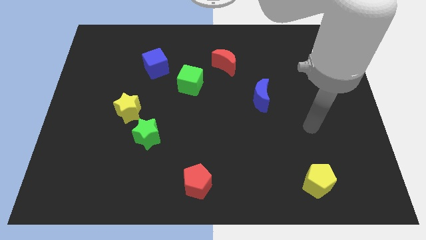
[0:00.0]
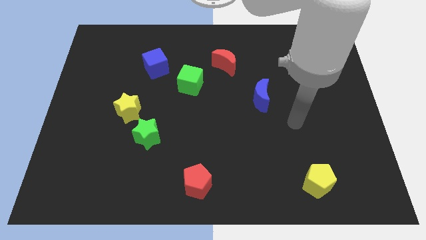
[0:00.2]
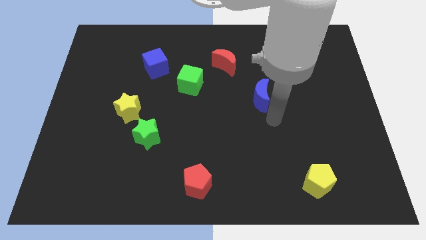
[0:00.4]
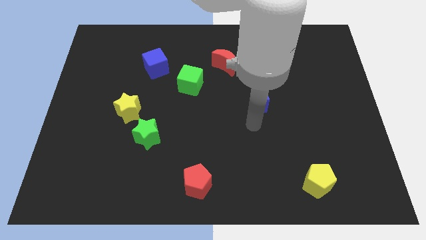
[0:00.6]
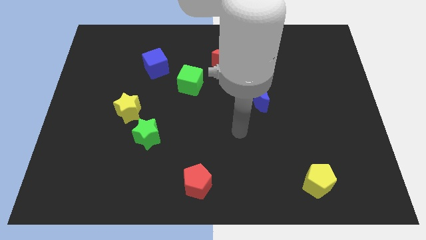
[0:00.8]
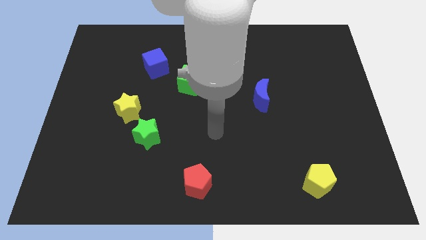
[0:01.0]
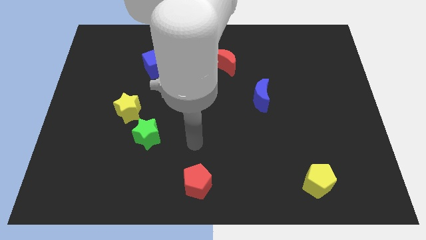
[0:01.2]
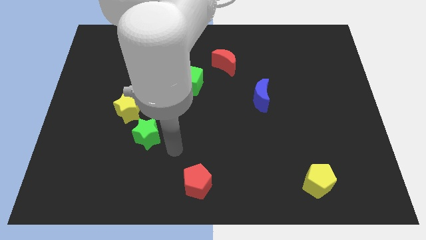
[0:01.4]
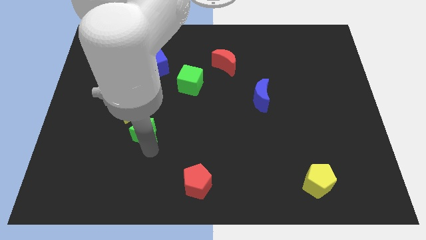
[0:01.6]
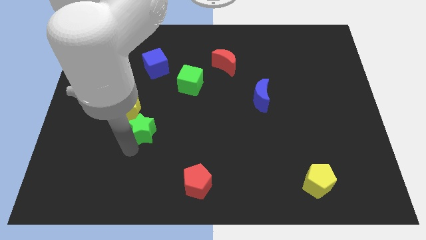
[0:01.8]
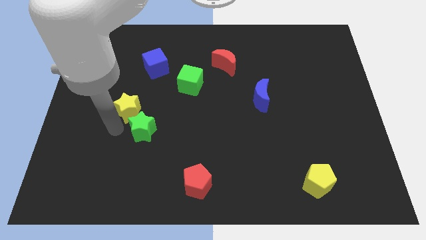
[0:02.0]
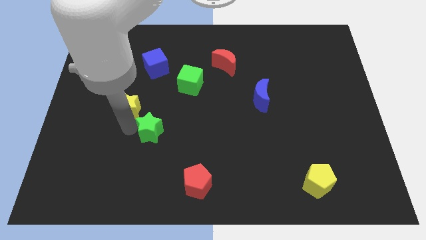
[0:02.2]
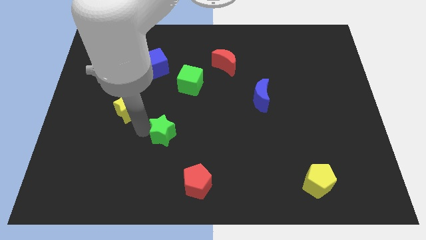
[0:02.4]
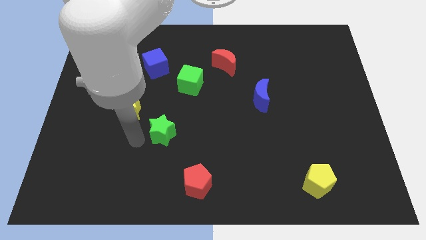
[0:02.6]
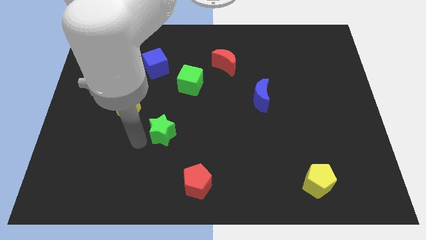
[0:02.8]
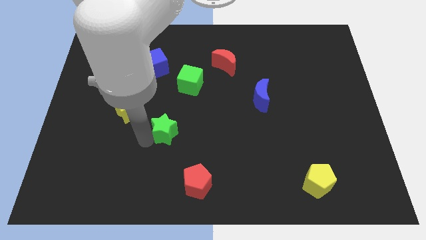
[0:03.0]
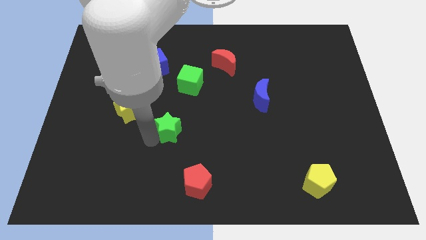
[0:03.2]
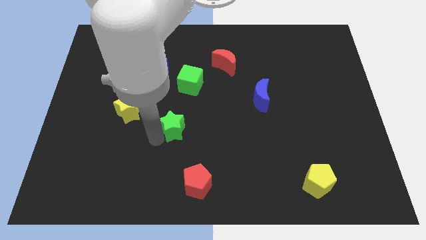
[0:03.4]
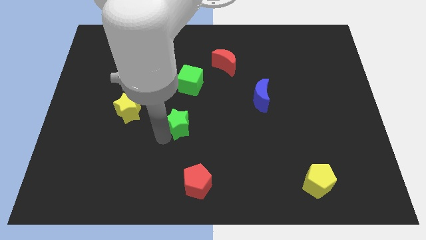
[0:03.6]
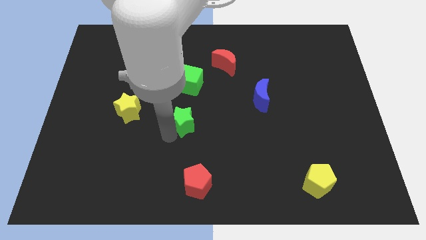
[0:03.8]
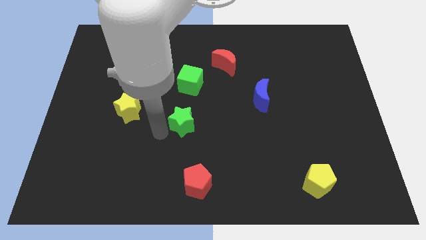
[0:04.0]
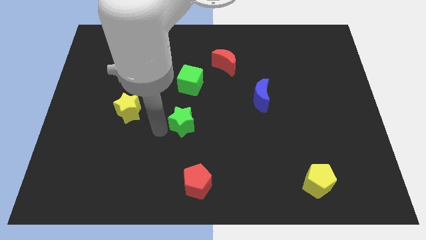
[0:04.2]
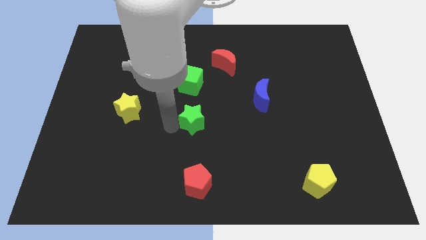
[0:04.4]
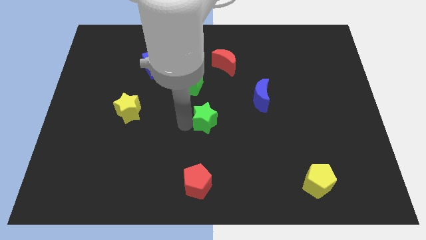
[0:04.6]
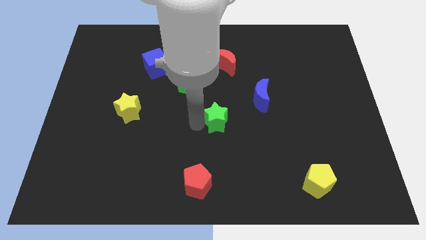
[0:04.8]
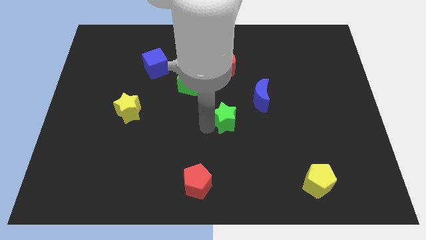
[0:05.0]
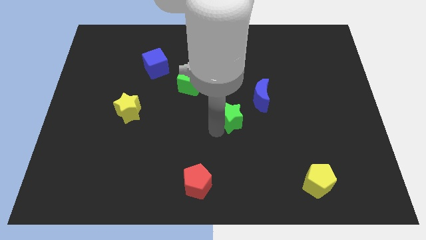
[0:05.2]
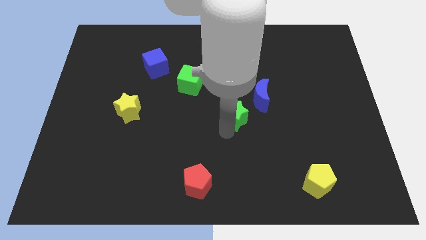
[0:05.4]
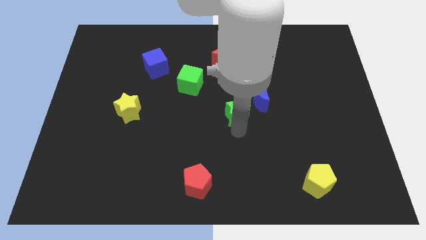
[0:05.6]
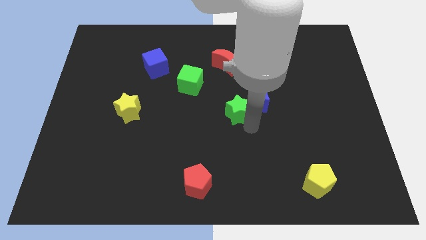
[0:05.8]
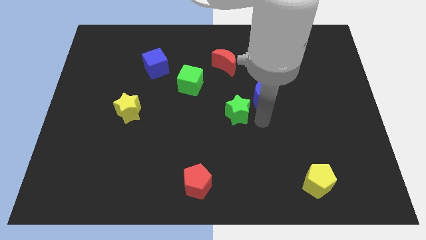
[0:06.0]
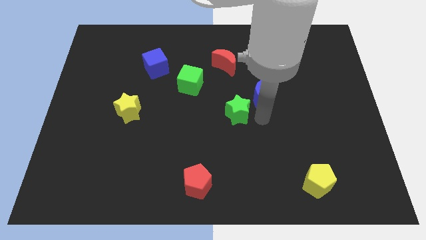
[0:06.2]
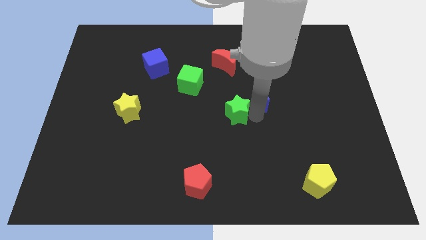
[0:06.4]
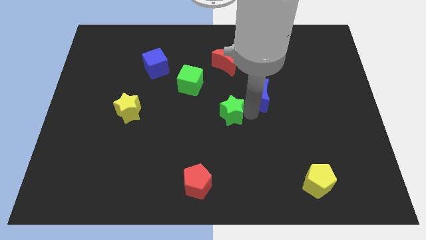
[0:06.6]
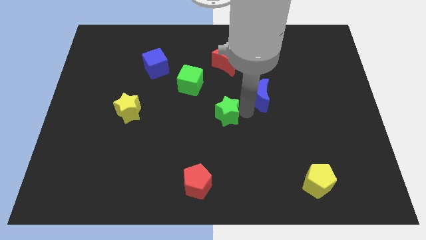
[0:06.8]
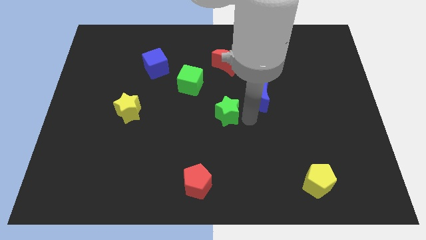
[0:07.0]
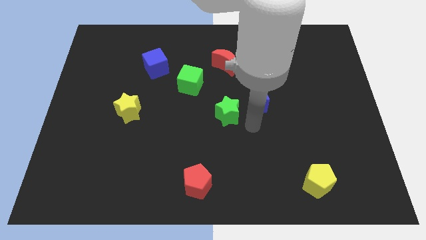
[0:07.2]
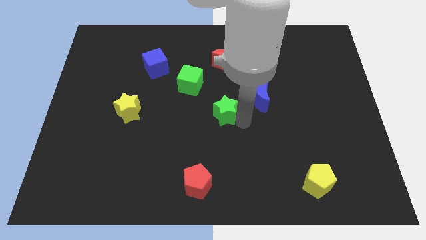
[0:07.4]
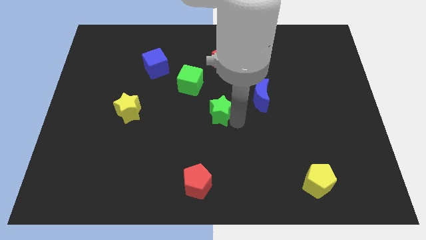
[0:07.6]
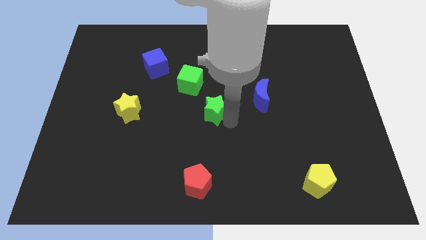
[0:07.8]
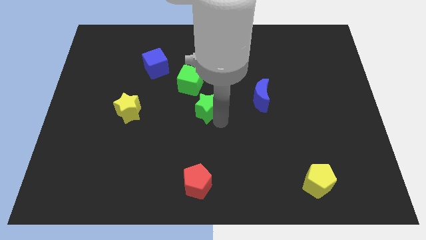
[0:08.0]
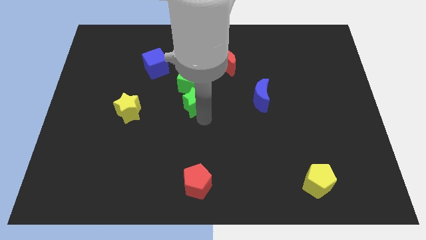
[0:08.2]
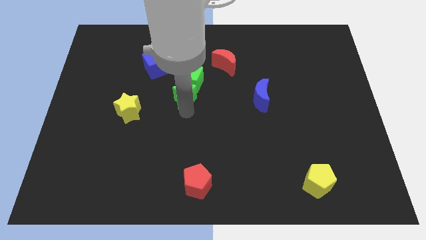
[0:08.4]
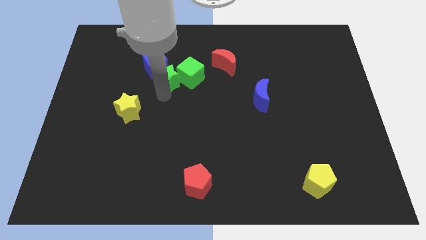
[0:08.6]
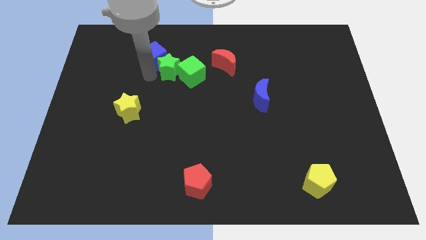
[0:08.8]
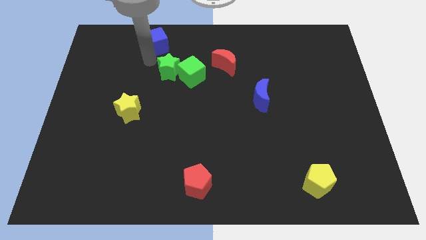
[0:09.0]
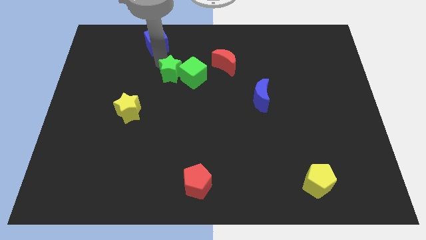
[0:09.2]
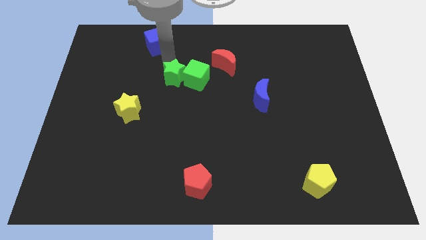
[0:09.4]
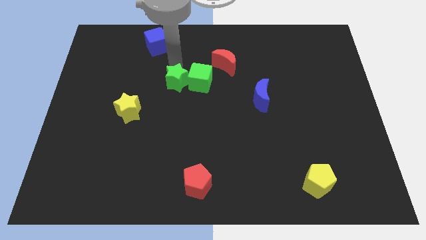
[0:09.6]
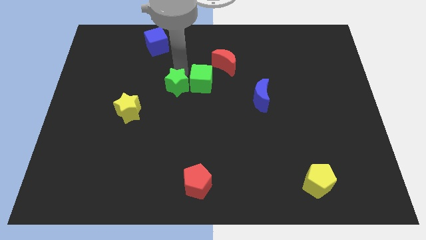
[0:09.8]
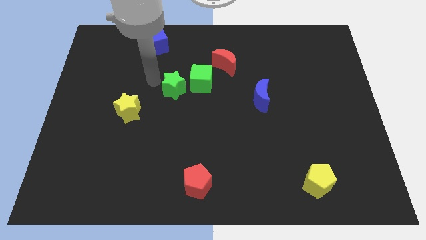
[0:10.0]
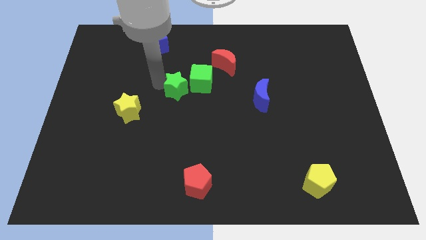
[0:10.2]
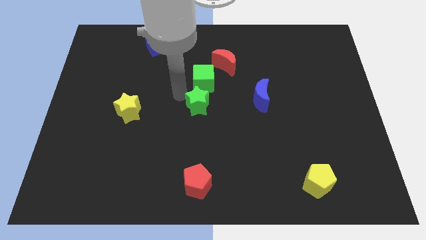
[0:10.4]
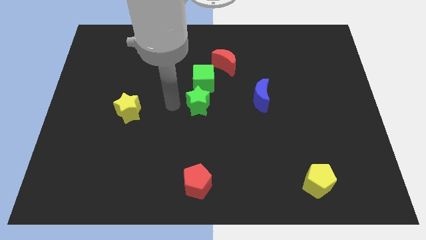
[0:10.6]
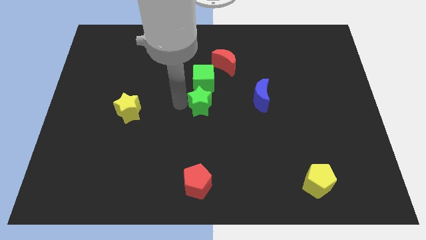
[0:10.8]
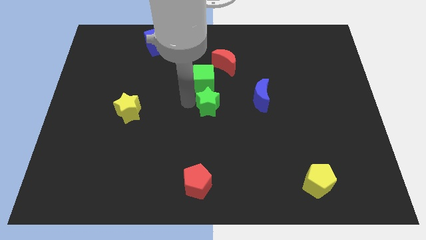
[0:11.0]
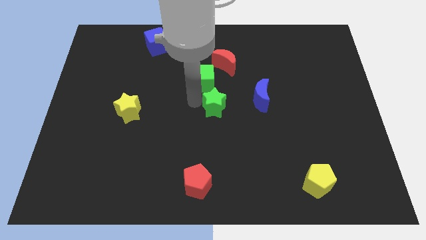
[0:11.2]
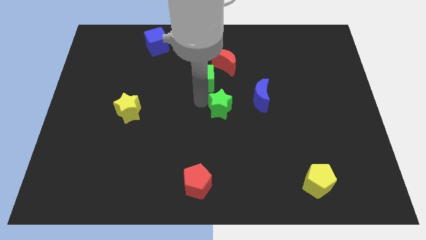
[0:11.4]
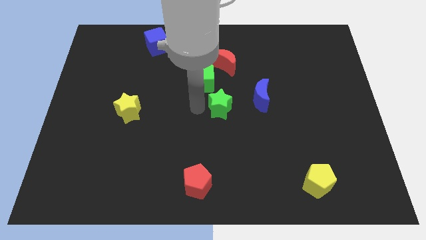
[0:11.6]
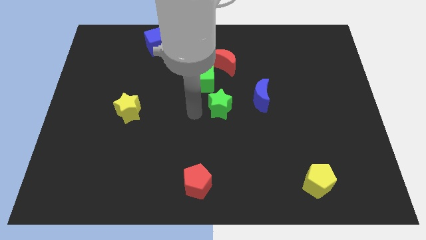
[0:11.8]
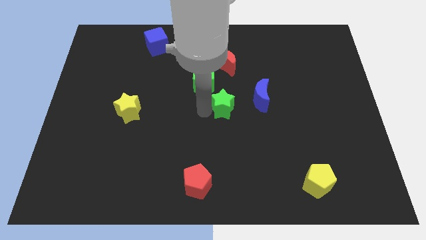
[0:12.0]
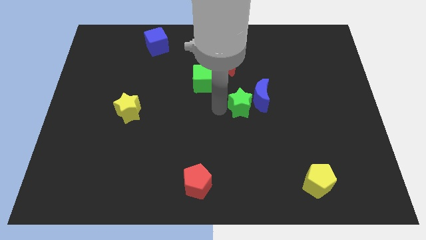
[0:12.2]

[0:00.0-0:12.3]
put the green star to the blue moon

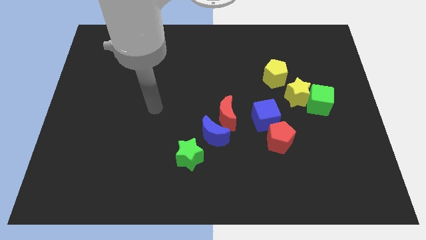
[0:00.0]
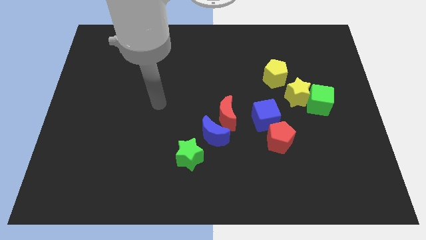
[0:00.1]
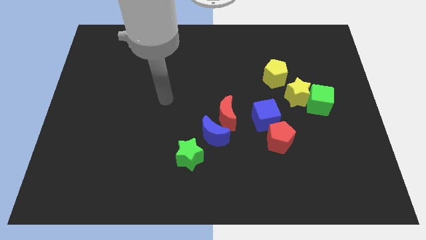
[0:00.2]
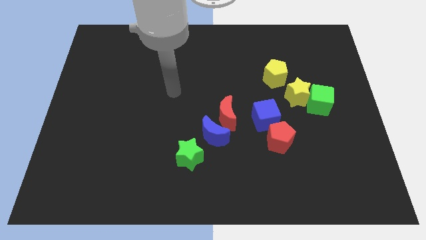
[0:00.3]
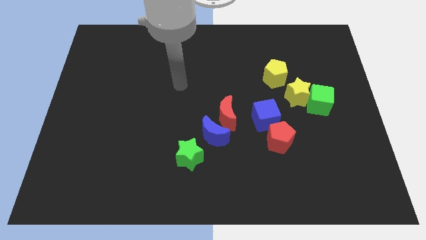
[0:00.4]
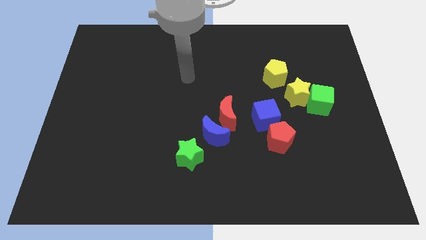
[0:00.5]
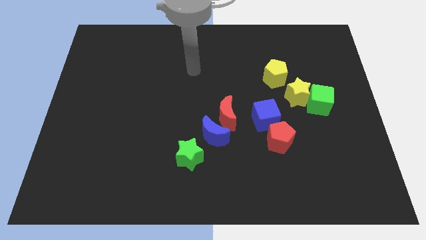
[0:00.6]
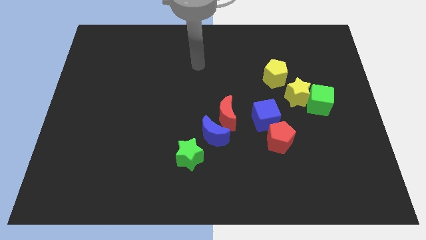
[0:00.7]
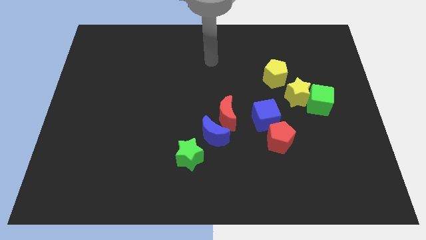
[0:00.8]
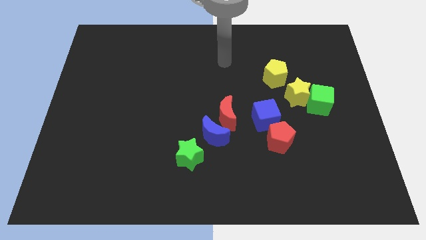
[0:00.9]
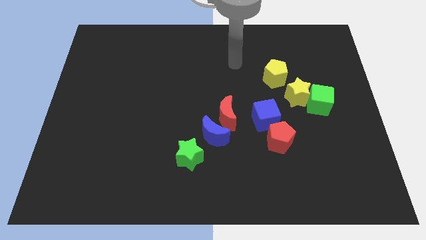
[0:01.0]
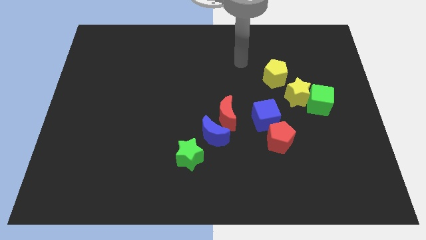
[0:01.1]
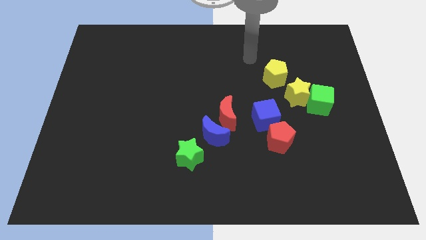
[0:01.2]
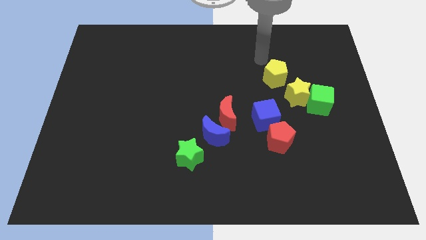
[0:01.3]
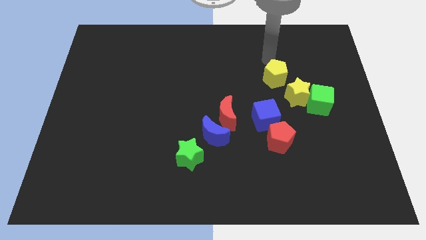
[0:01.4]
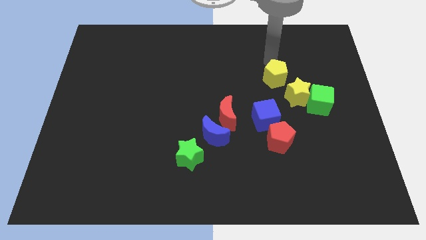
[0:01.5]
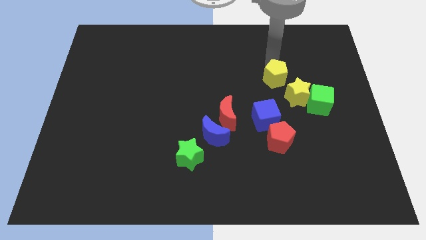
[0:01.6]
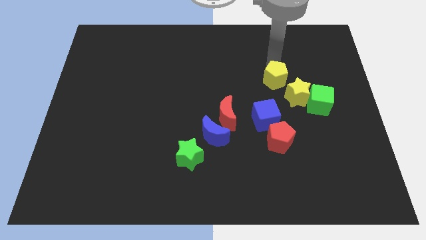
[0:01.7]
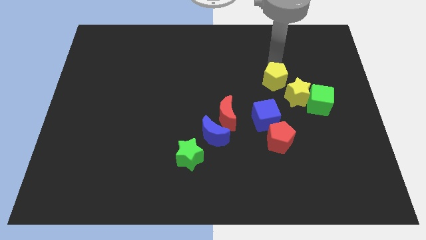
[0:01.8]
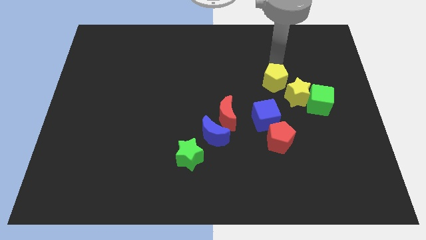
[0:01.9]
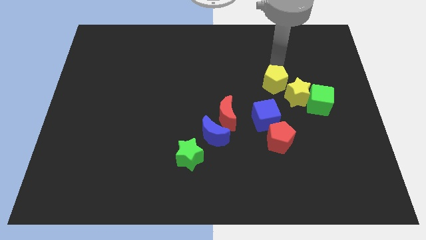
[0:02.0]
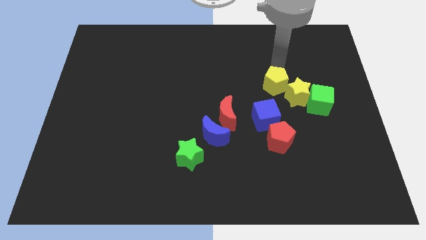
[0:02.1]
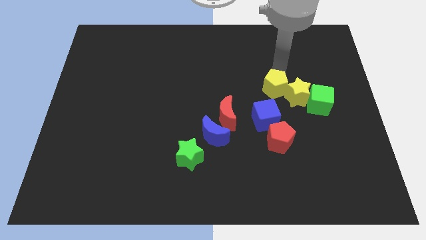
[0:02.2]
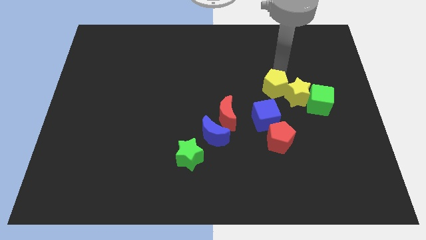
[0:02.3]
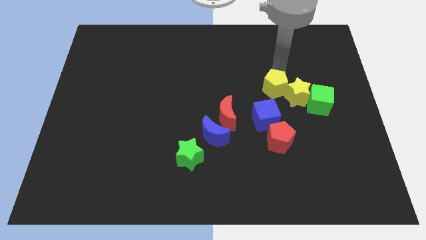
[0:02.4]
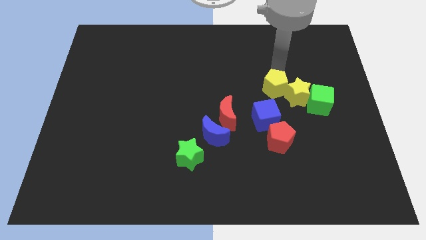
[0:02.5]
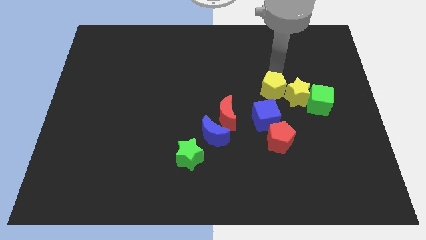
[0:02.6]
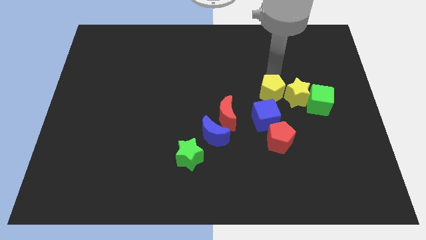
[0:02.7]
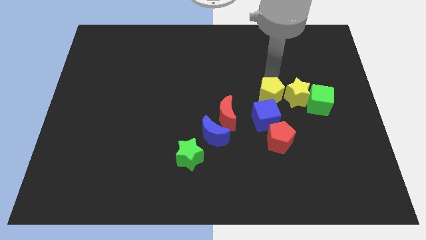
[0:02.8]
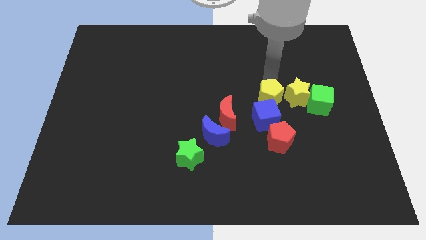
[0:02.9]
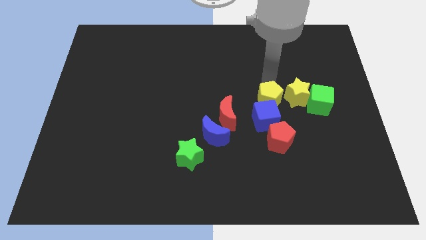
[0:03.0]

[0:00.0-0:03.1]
put the yellow pentagon next to the blue cube
